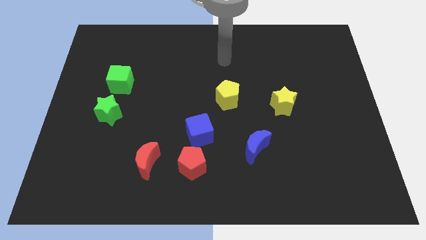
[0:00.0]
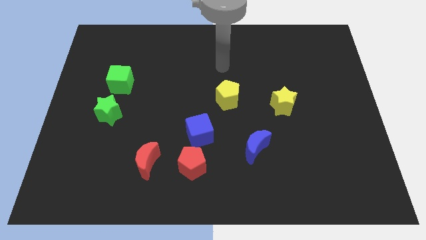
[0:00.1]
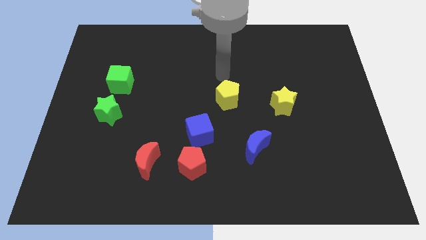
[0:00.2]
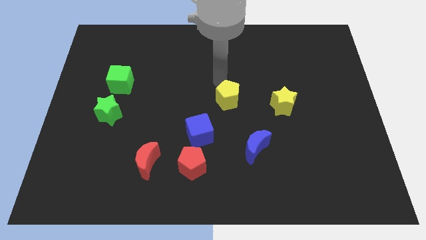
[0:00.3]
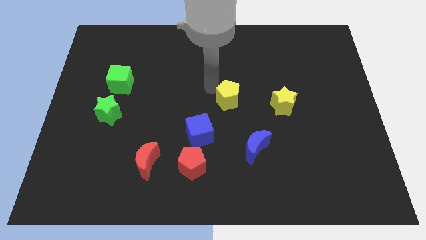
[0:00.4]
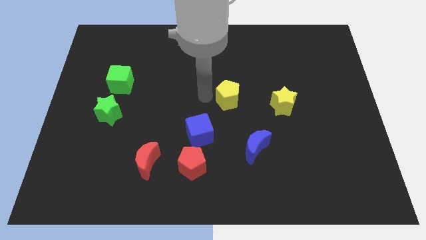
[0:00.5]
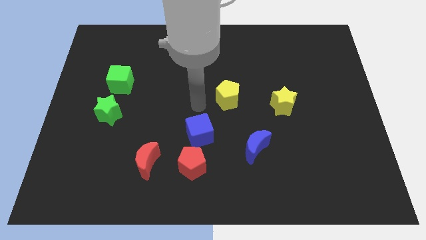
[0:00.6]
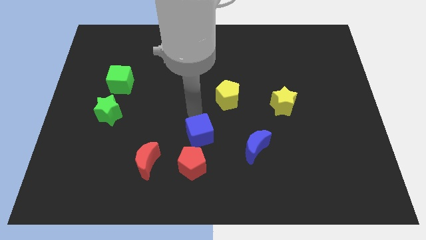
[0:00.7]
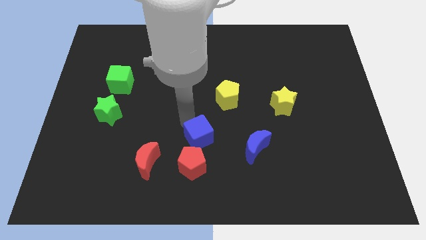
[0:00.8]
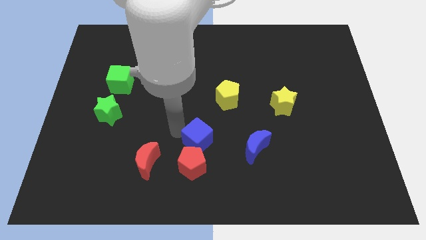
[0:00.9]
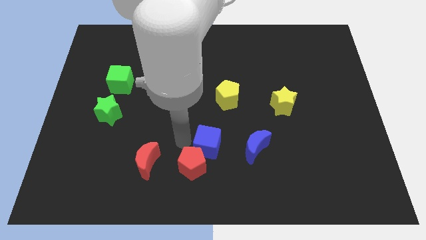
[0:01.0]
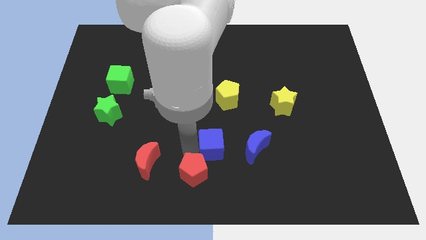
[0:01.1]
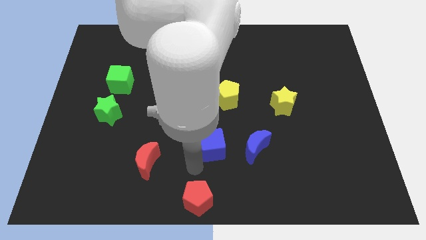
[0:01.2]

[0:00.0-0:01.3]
separate the blue cube from the red pentagon

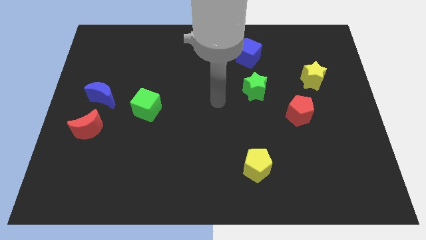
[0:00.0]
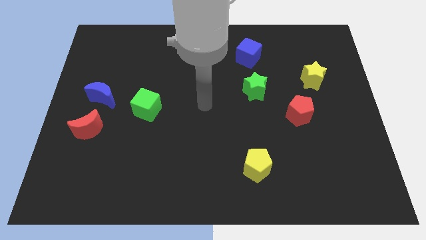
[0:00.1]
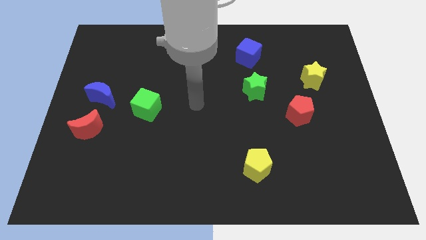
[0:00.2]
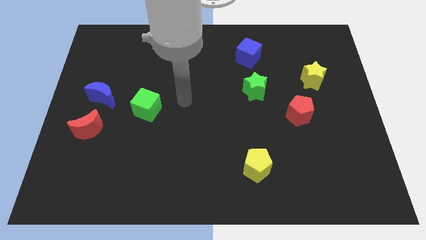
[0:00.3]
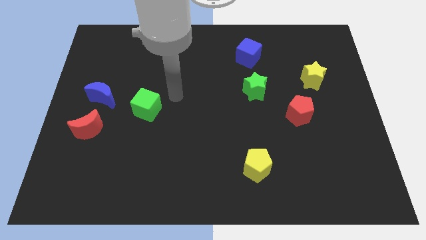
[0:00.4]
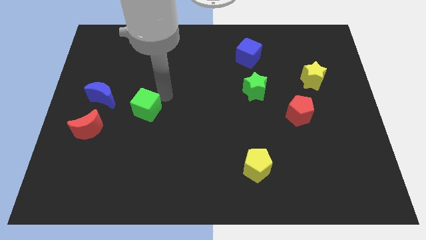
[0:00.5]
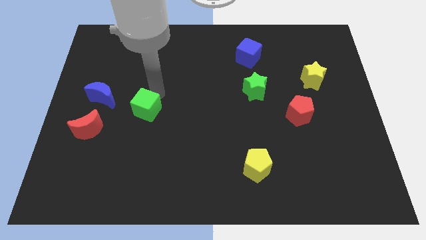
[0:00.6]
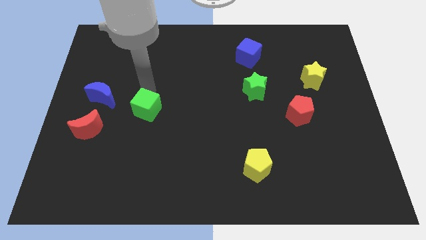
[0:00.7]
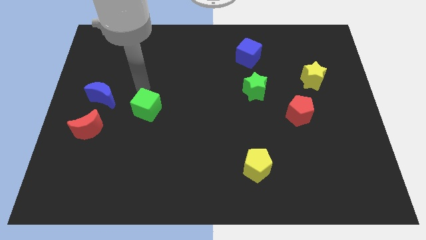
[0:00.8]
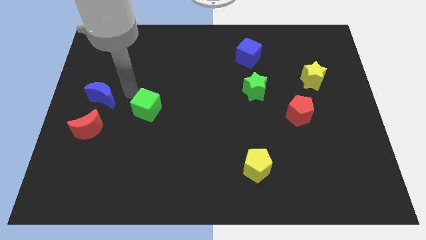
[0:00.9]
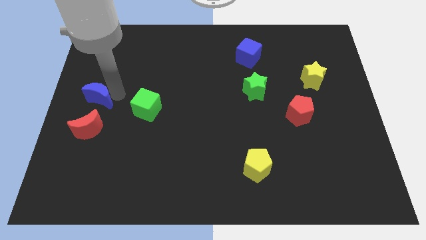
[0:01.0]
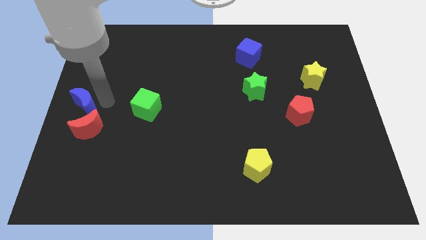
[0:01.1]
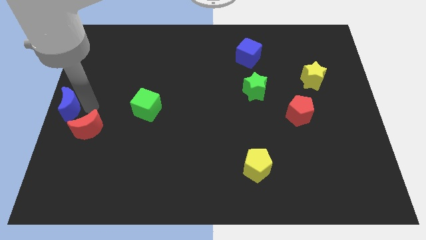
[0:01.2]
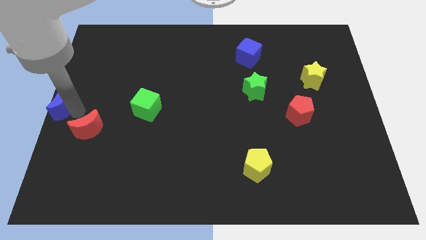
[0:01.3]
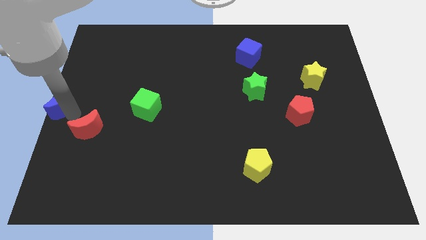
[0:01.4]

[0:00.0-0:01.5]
move the red moon away from the blue moon

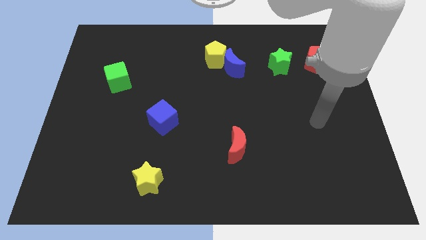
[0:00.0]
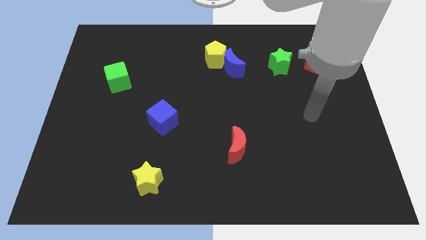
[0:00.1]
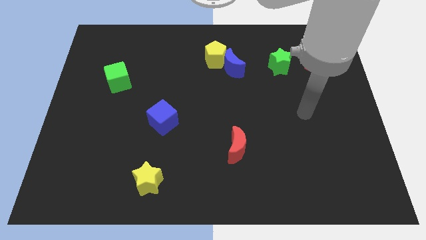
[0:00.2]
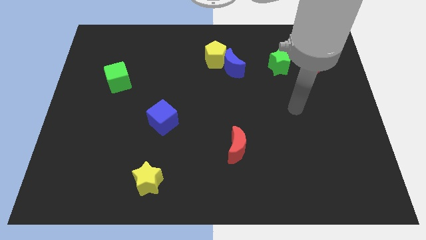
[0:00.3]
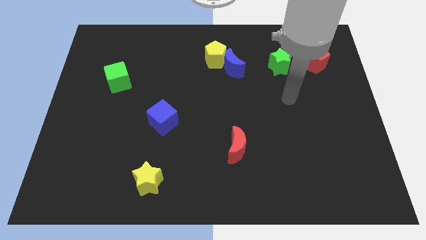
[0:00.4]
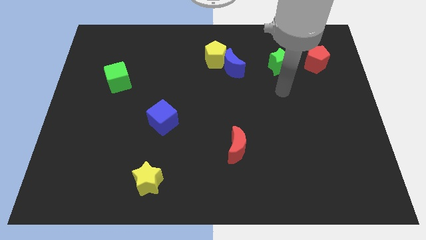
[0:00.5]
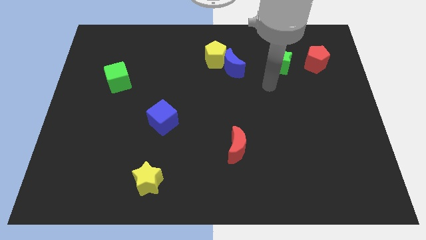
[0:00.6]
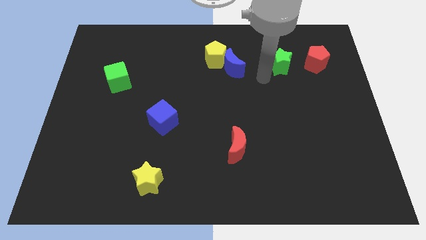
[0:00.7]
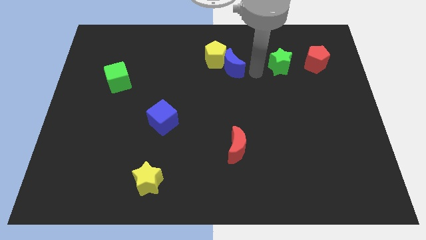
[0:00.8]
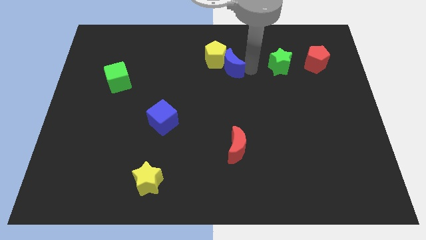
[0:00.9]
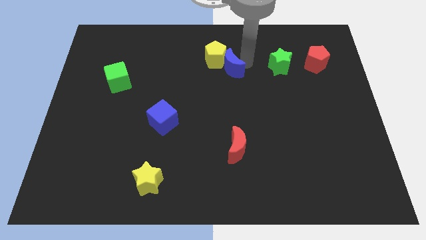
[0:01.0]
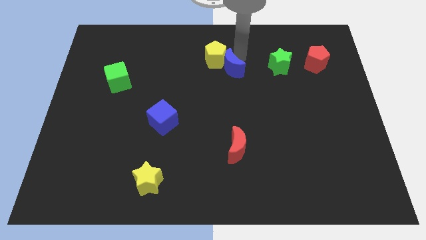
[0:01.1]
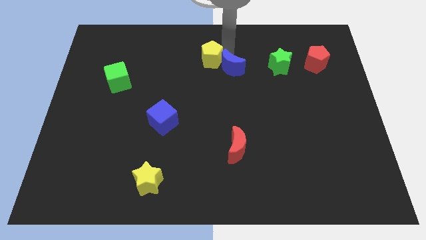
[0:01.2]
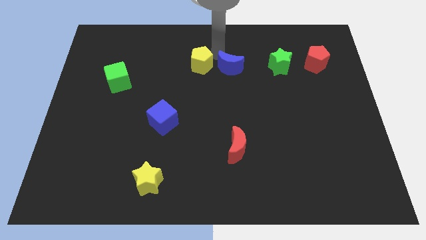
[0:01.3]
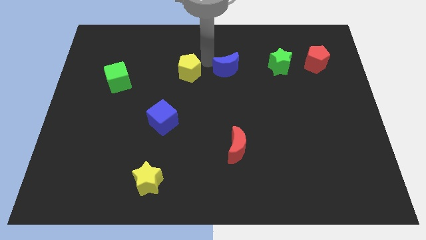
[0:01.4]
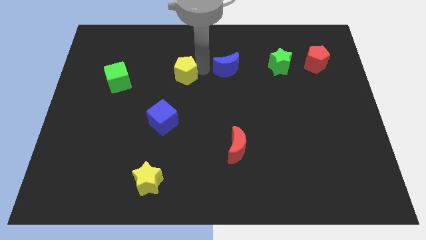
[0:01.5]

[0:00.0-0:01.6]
pull the blue moon apart from the yellow pentagon

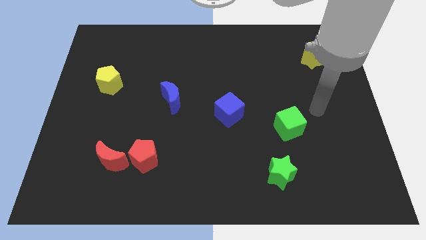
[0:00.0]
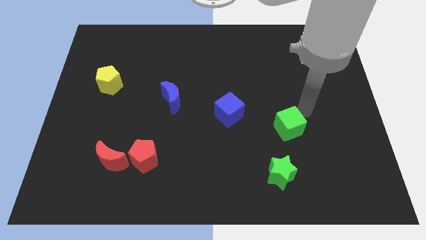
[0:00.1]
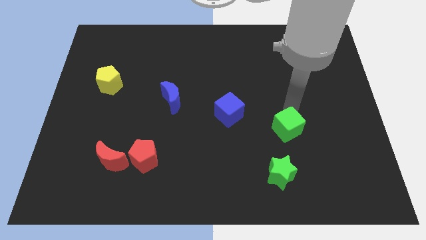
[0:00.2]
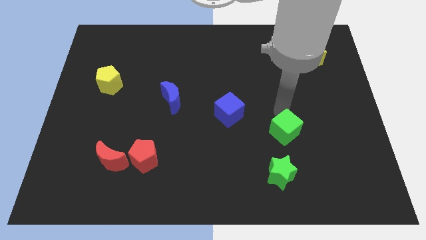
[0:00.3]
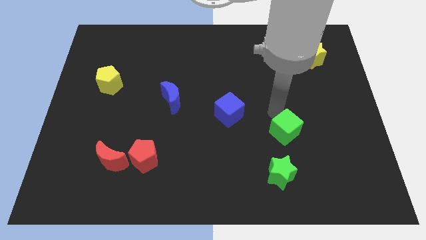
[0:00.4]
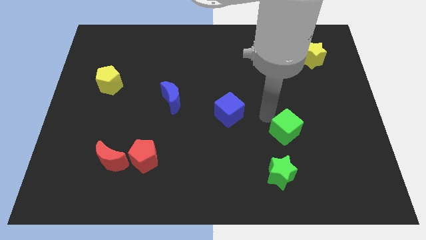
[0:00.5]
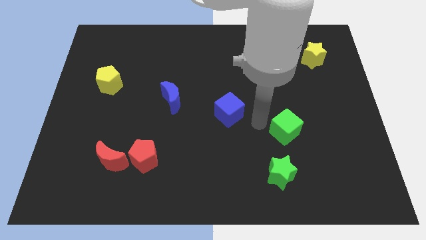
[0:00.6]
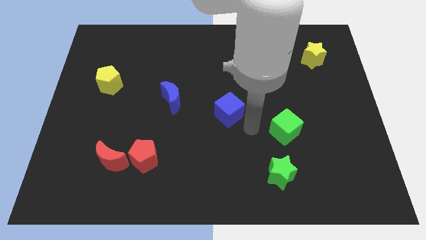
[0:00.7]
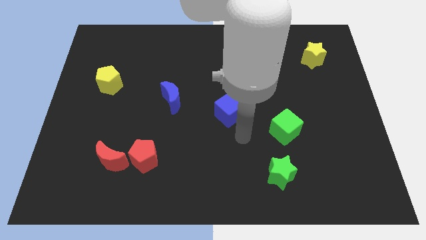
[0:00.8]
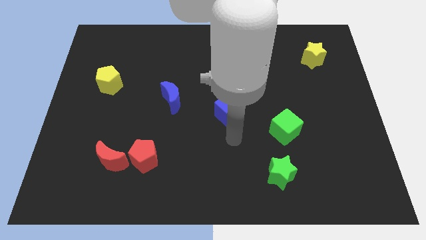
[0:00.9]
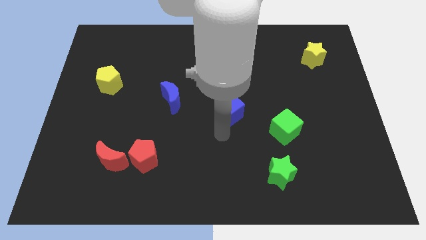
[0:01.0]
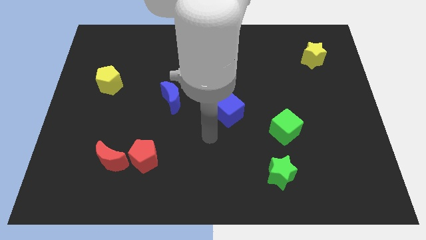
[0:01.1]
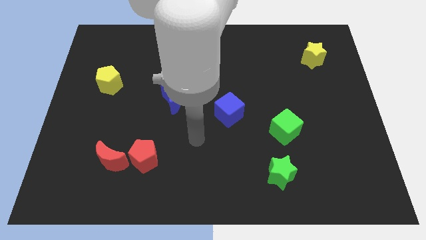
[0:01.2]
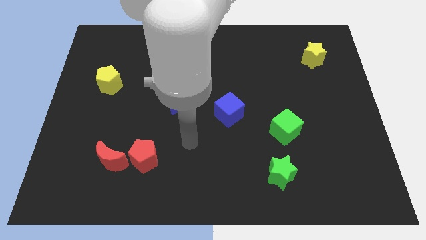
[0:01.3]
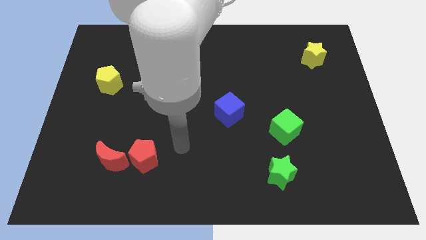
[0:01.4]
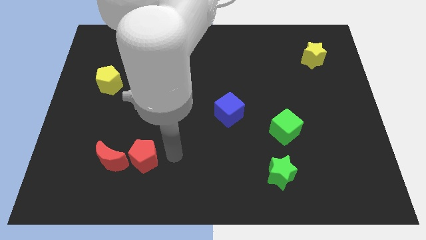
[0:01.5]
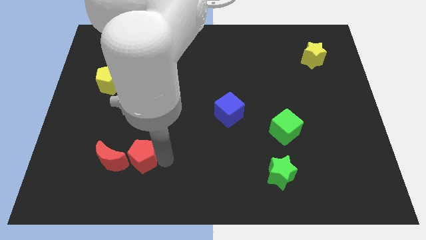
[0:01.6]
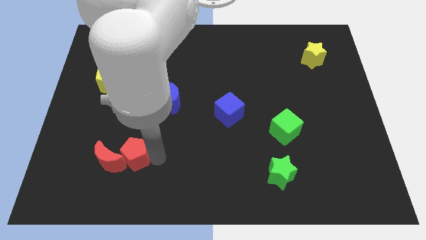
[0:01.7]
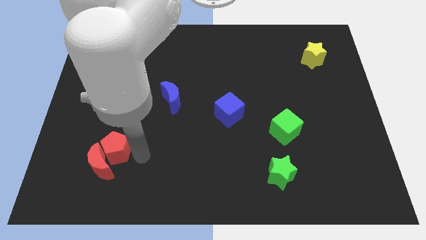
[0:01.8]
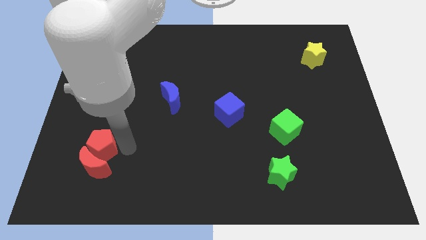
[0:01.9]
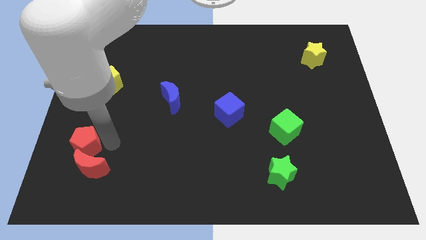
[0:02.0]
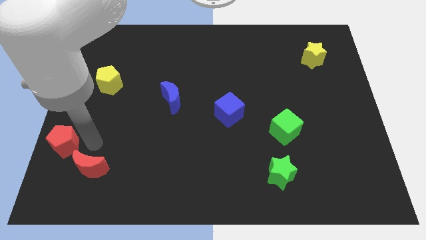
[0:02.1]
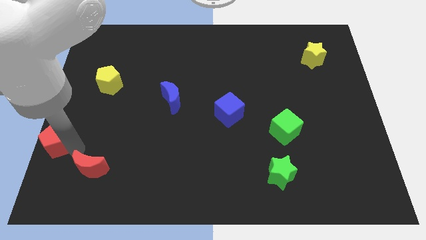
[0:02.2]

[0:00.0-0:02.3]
pull the red moon apart from the red pentagon

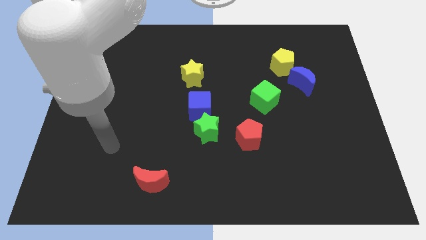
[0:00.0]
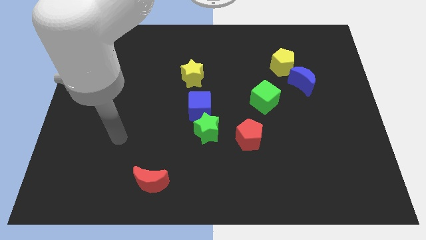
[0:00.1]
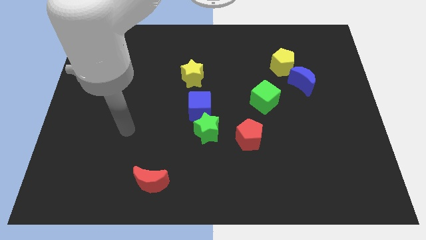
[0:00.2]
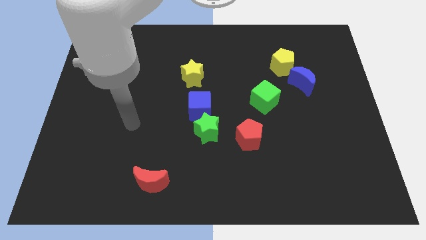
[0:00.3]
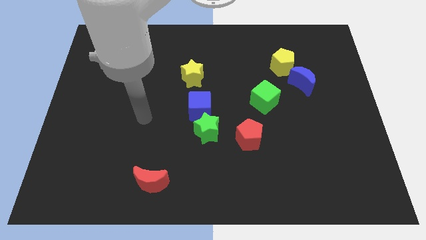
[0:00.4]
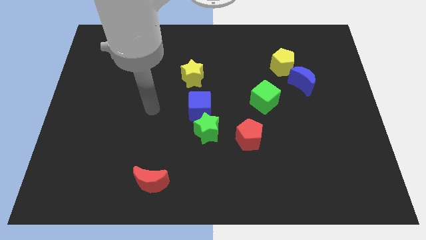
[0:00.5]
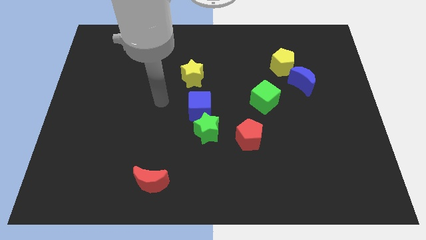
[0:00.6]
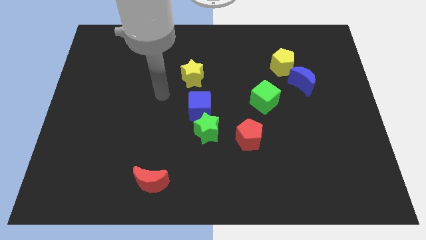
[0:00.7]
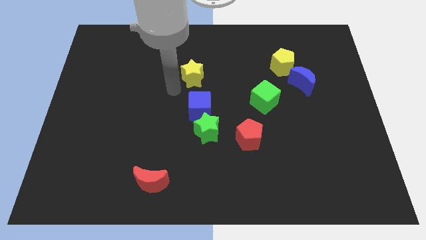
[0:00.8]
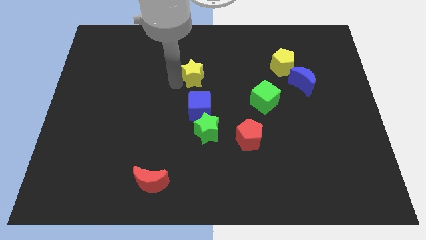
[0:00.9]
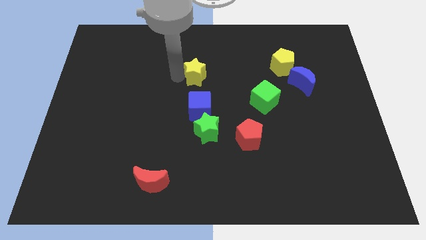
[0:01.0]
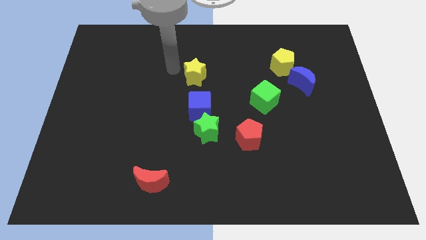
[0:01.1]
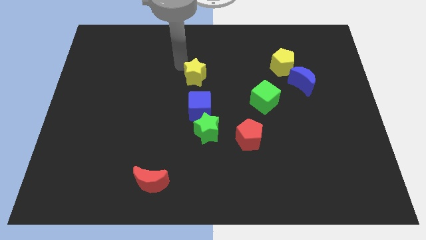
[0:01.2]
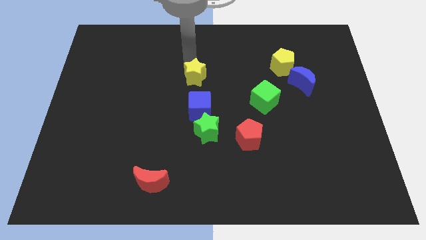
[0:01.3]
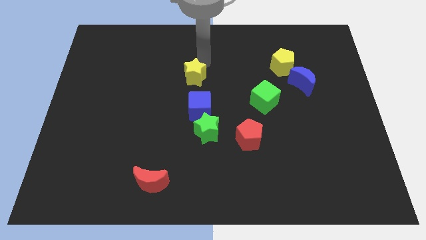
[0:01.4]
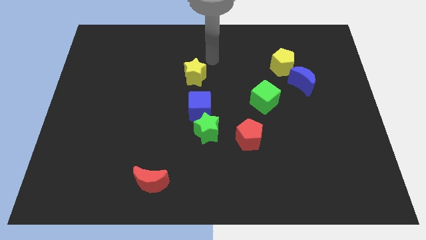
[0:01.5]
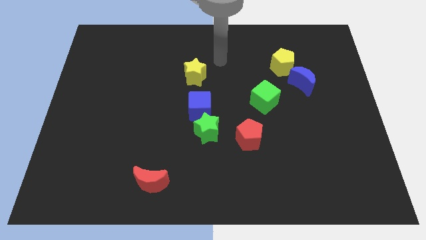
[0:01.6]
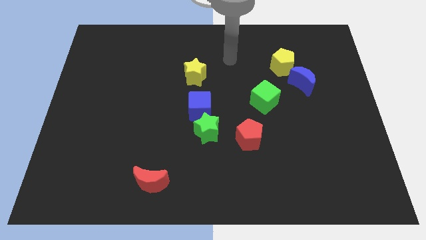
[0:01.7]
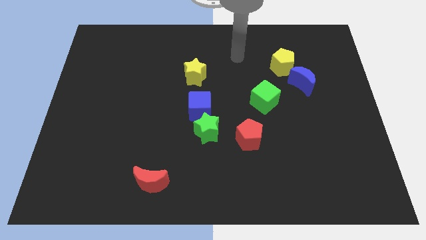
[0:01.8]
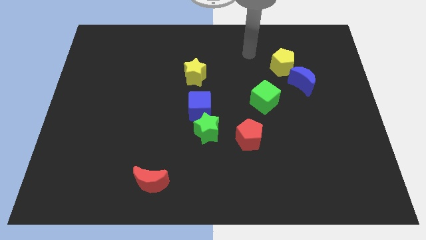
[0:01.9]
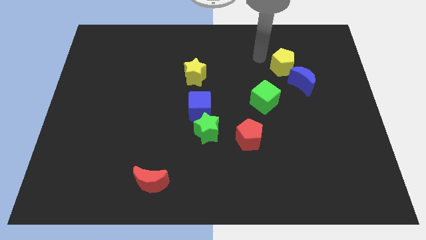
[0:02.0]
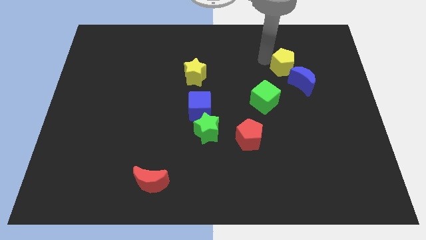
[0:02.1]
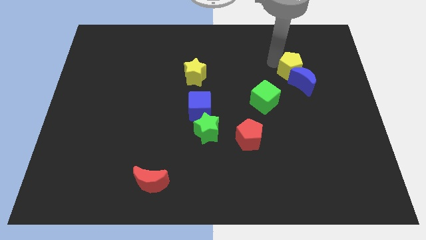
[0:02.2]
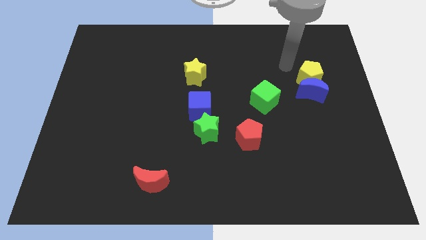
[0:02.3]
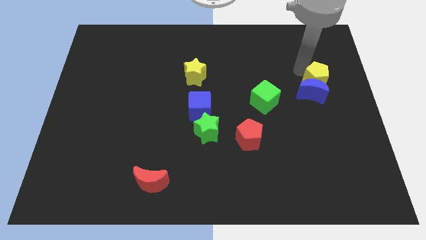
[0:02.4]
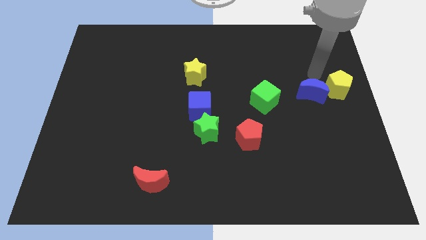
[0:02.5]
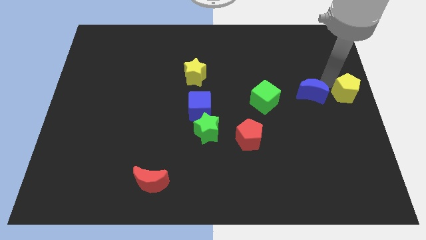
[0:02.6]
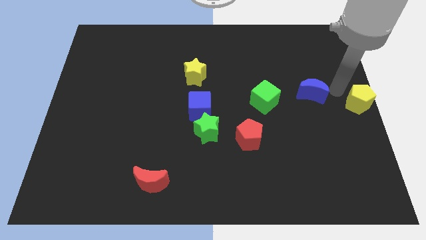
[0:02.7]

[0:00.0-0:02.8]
move the blue moon away from the yellow pentagon
